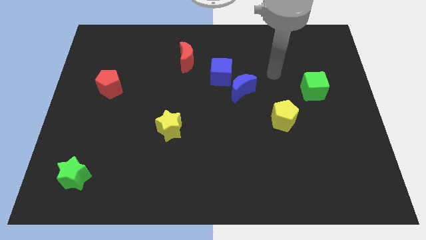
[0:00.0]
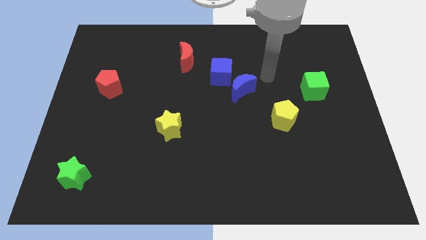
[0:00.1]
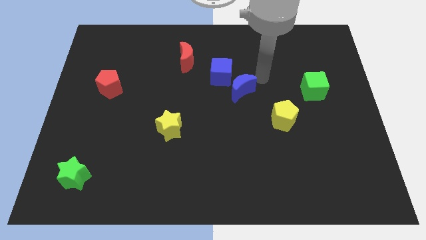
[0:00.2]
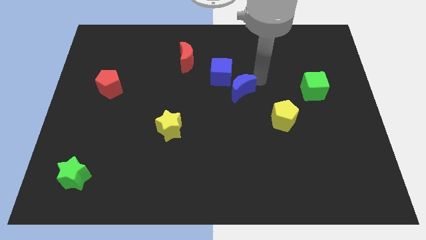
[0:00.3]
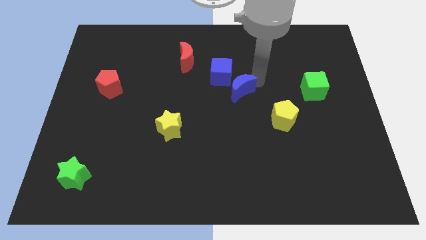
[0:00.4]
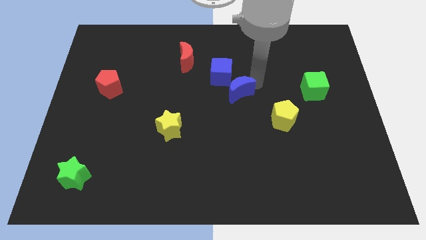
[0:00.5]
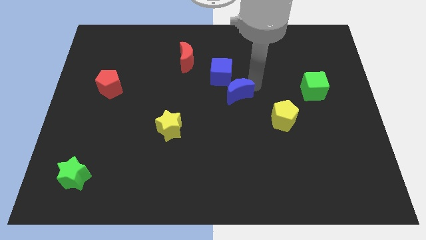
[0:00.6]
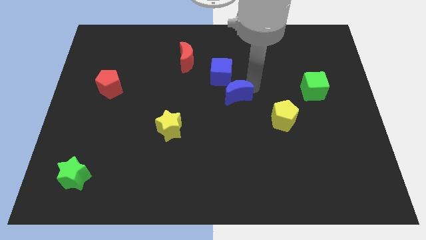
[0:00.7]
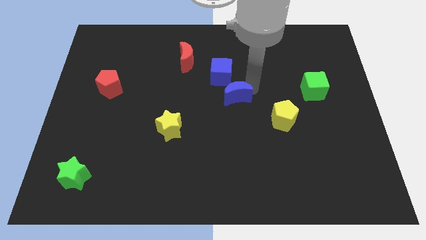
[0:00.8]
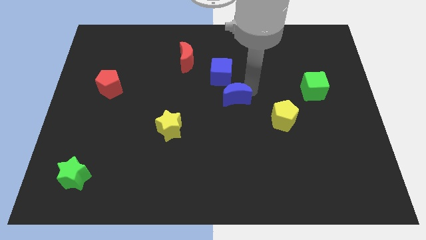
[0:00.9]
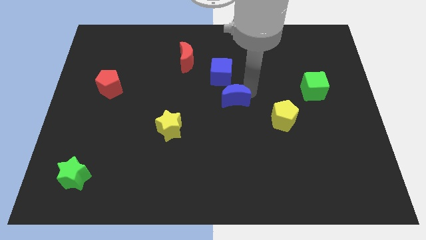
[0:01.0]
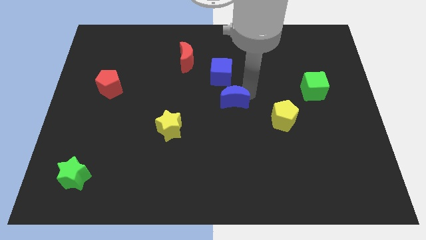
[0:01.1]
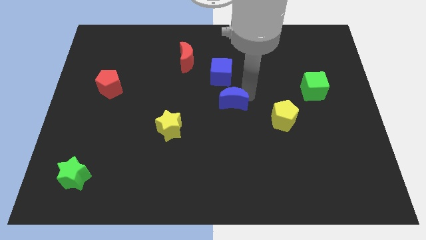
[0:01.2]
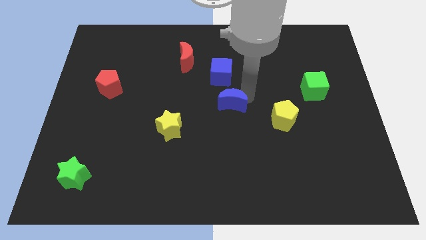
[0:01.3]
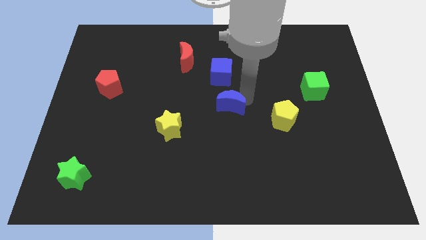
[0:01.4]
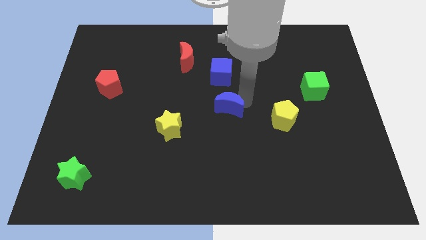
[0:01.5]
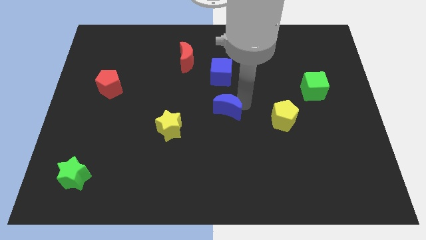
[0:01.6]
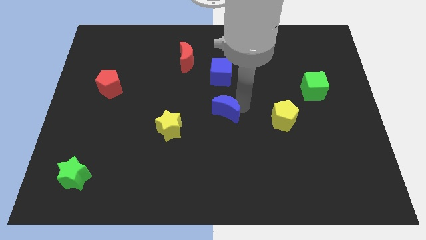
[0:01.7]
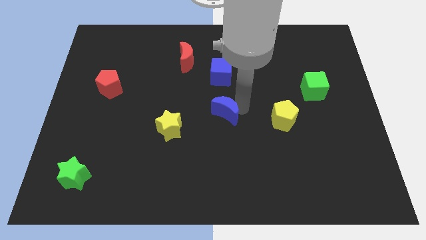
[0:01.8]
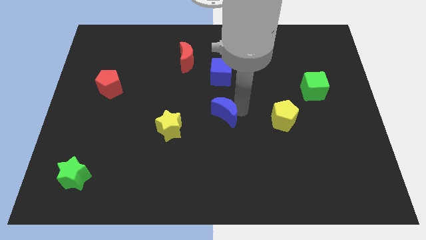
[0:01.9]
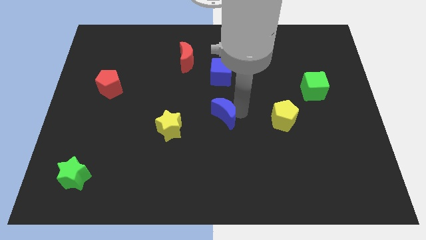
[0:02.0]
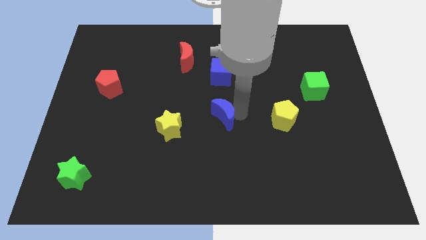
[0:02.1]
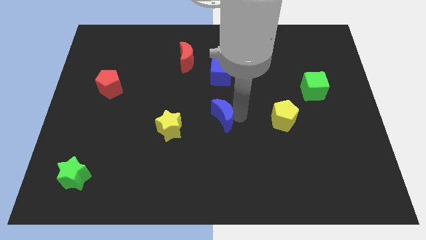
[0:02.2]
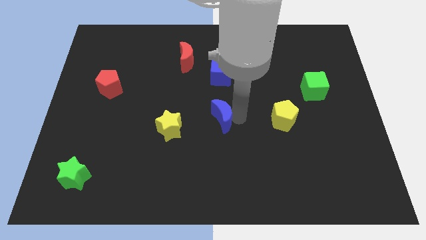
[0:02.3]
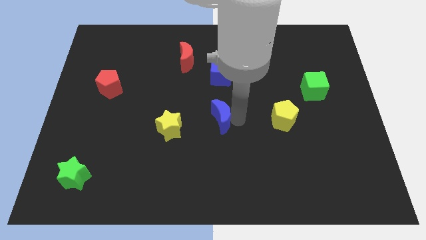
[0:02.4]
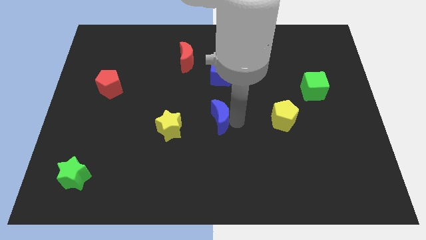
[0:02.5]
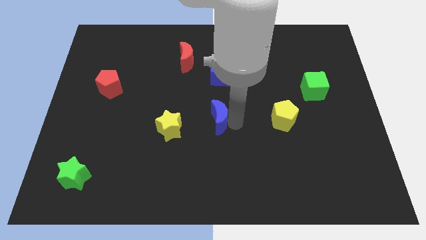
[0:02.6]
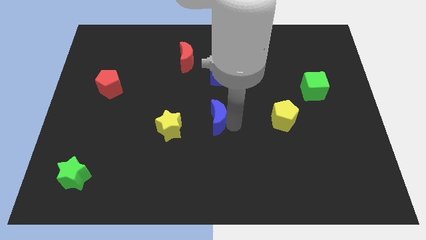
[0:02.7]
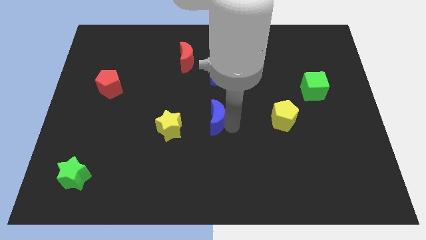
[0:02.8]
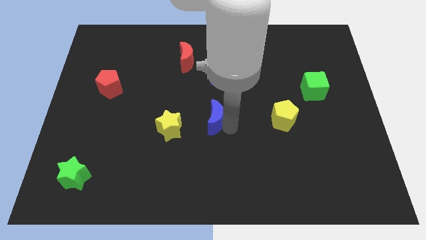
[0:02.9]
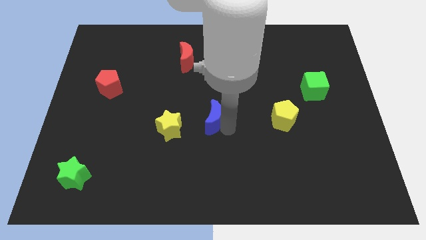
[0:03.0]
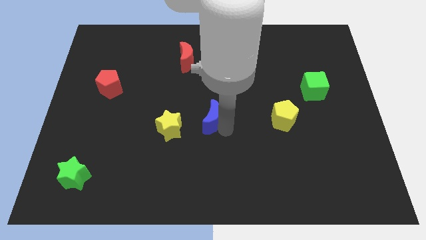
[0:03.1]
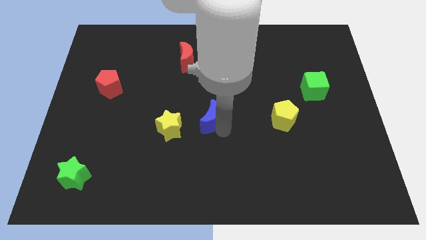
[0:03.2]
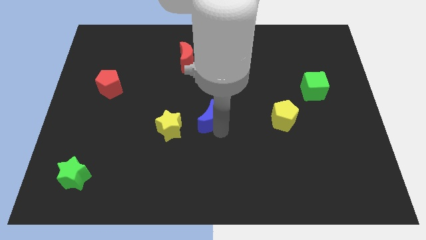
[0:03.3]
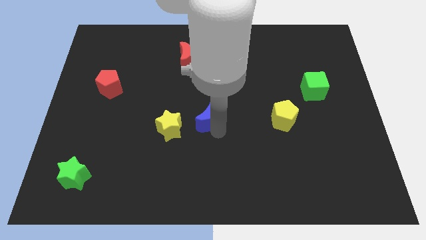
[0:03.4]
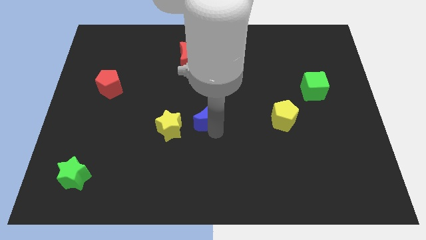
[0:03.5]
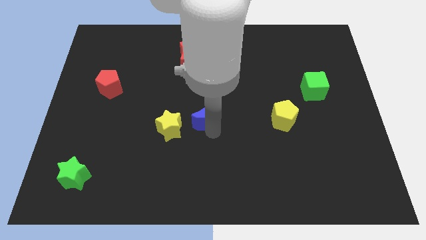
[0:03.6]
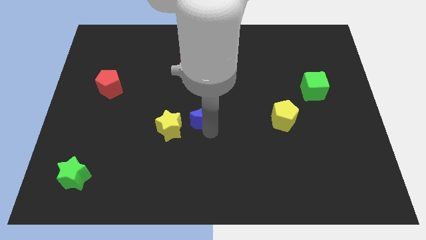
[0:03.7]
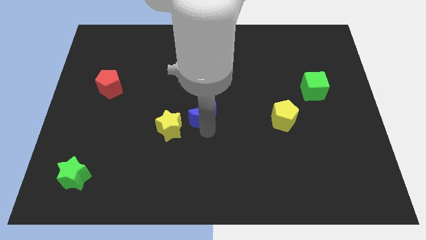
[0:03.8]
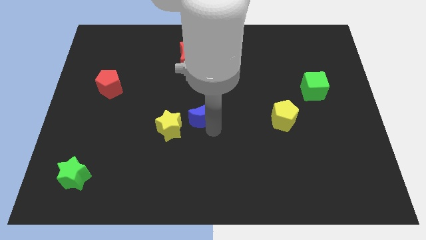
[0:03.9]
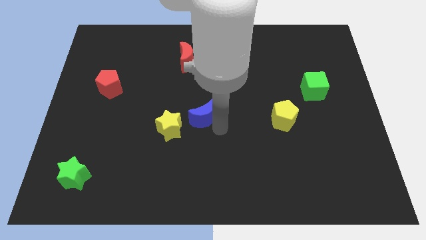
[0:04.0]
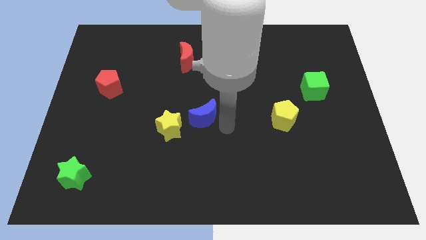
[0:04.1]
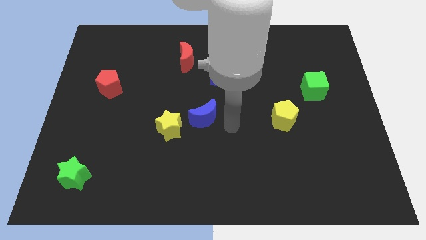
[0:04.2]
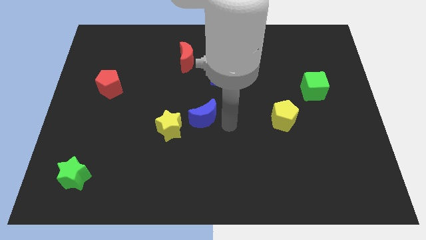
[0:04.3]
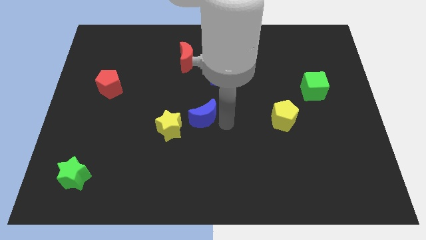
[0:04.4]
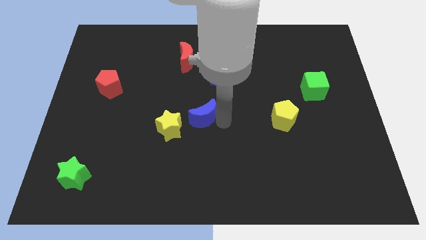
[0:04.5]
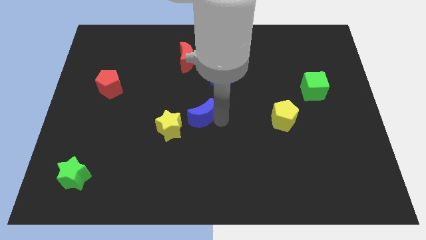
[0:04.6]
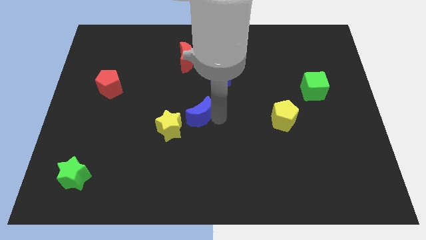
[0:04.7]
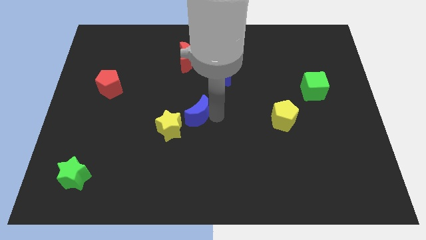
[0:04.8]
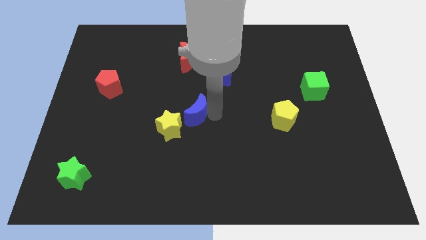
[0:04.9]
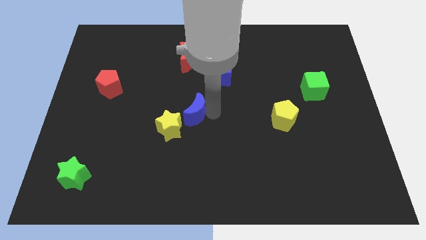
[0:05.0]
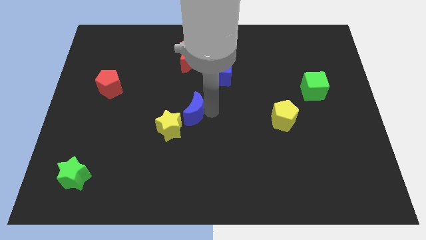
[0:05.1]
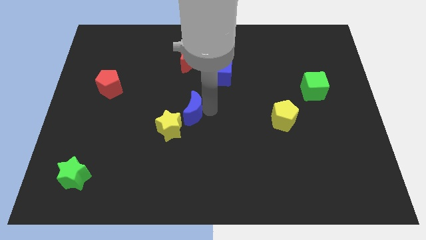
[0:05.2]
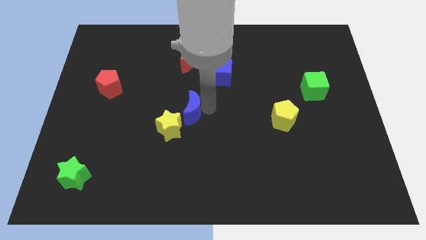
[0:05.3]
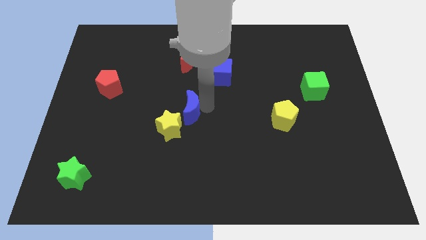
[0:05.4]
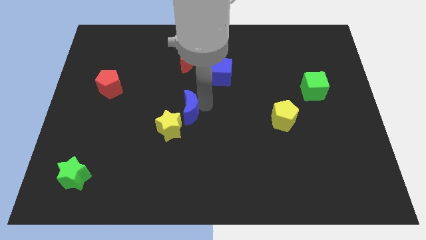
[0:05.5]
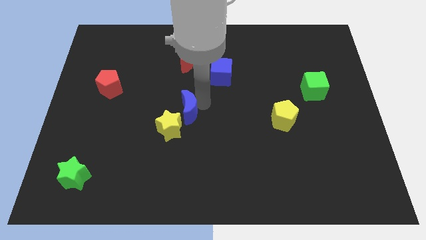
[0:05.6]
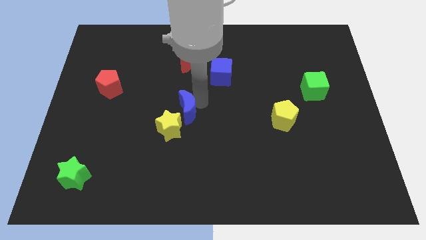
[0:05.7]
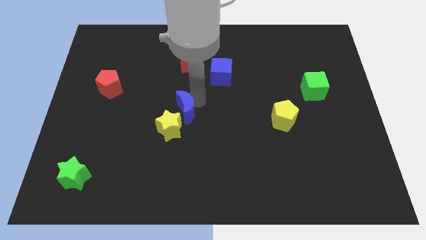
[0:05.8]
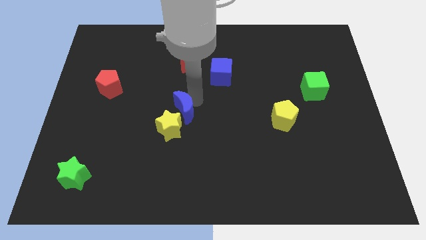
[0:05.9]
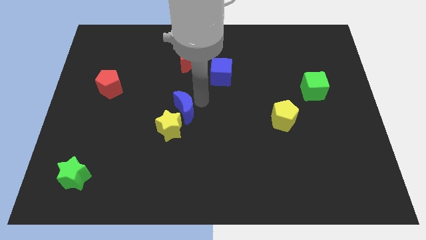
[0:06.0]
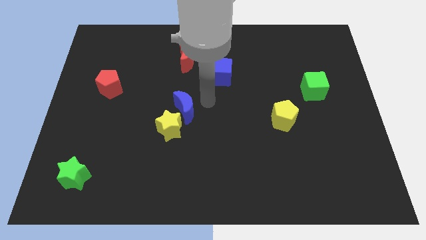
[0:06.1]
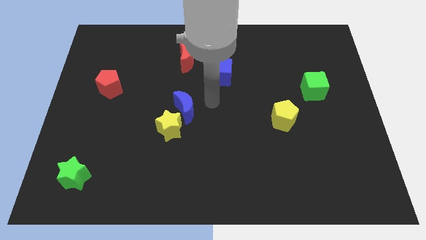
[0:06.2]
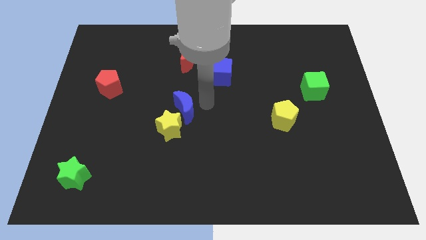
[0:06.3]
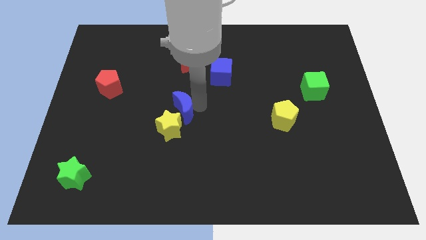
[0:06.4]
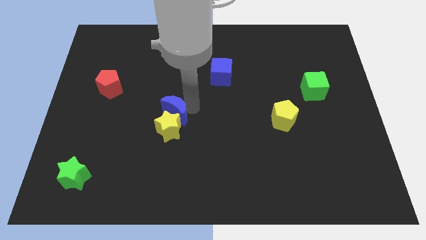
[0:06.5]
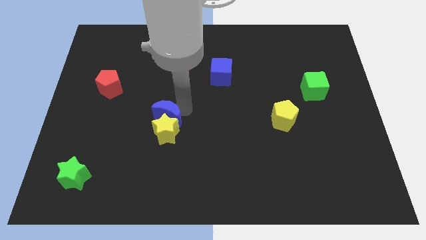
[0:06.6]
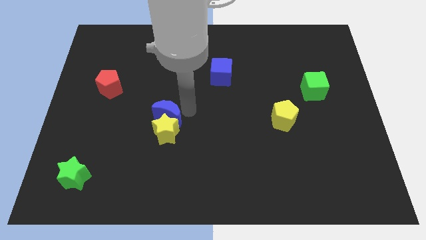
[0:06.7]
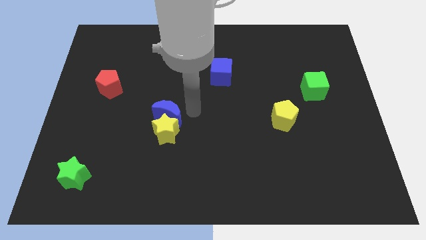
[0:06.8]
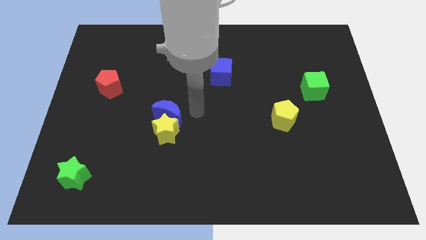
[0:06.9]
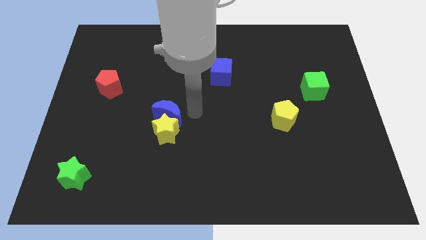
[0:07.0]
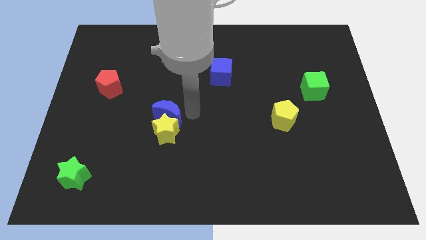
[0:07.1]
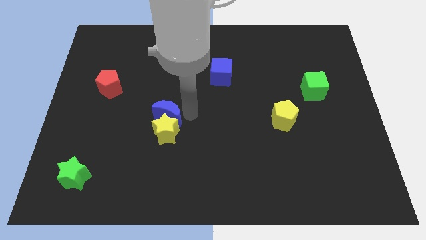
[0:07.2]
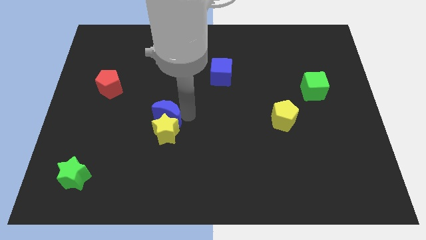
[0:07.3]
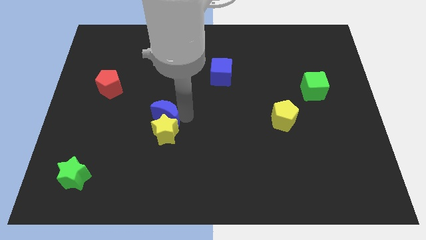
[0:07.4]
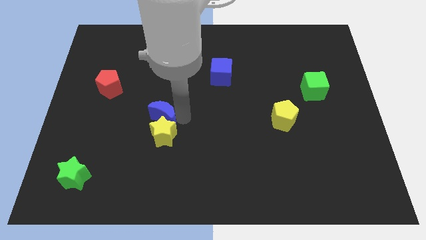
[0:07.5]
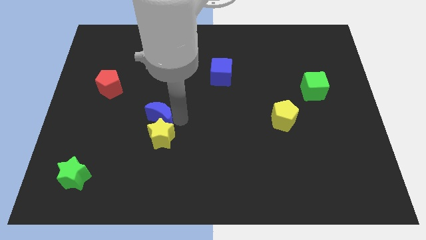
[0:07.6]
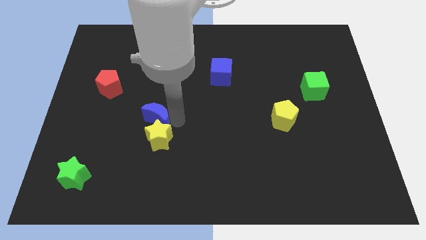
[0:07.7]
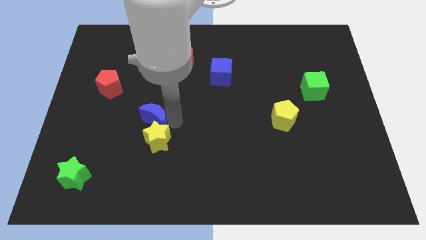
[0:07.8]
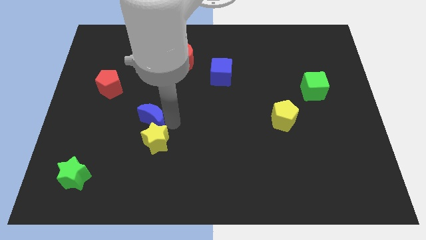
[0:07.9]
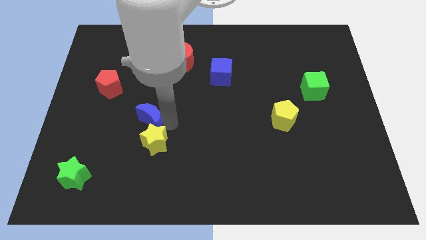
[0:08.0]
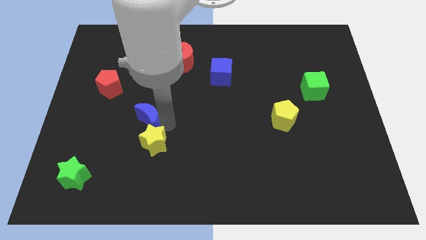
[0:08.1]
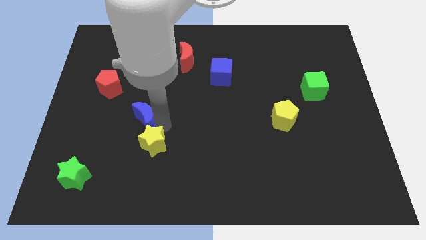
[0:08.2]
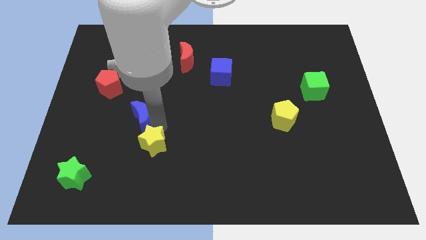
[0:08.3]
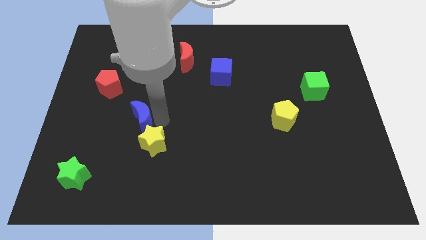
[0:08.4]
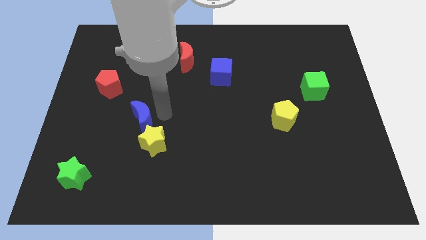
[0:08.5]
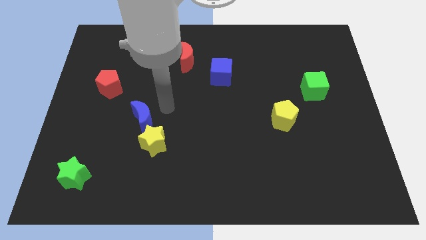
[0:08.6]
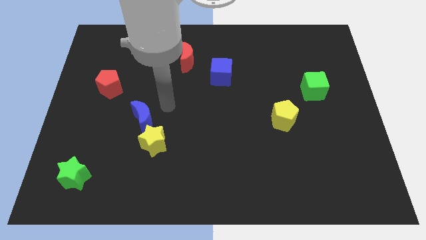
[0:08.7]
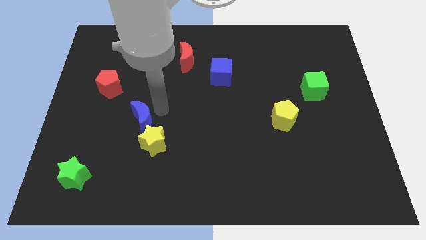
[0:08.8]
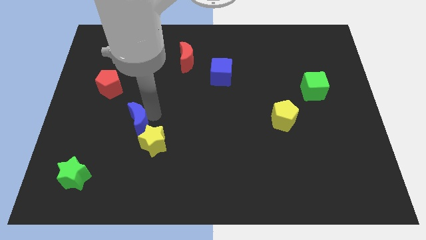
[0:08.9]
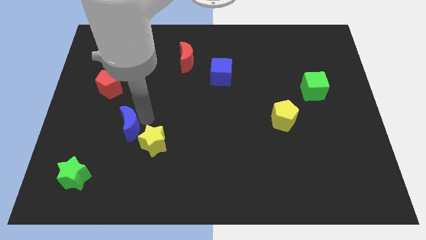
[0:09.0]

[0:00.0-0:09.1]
move the blue moon just left of the yellow star
